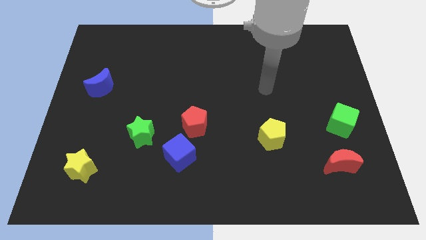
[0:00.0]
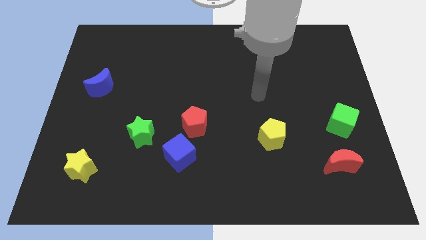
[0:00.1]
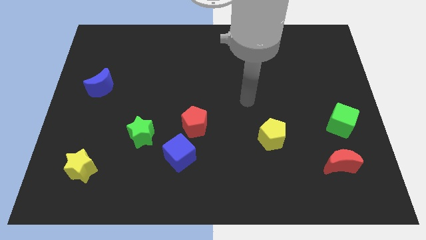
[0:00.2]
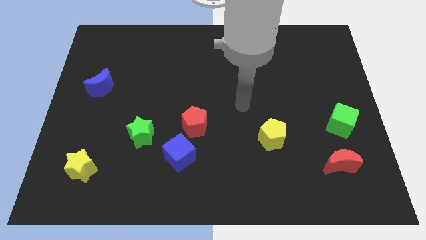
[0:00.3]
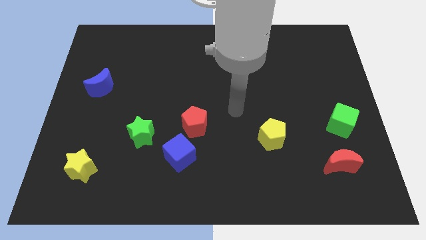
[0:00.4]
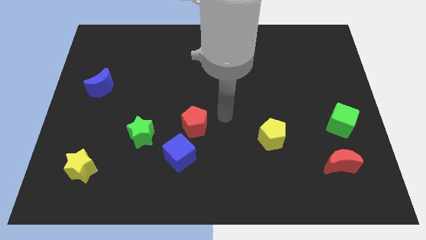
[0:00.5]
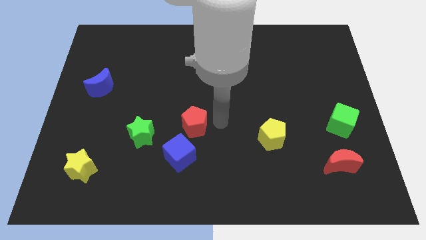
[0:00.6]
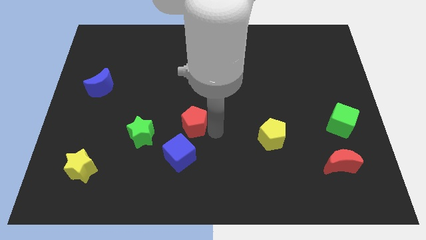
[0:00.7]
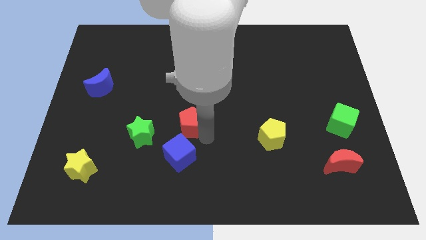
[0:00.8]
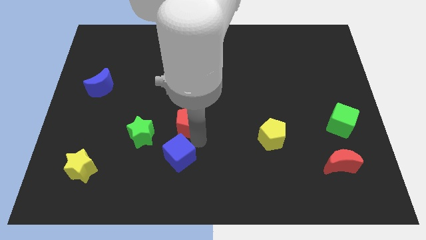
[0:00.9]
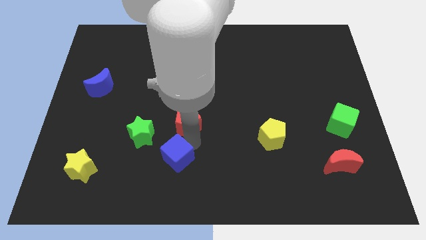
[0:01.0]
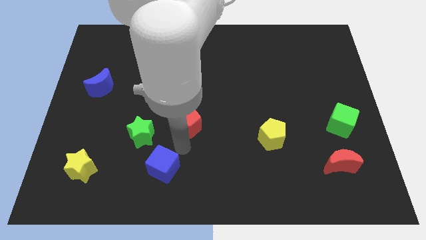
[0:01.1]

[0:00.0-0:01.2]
separate the red pentagon from the blue cube

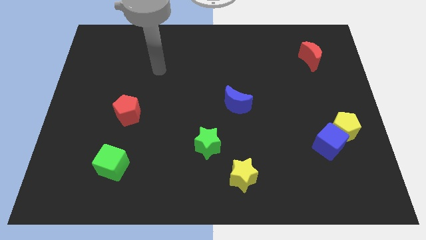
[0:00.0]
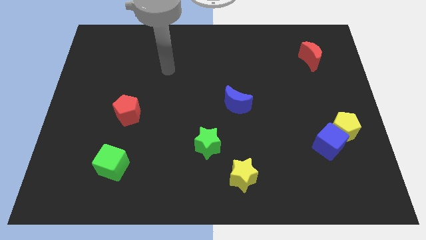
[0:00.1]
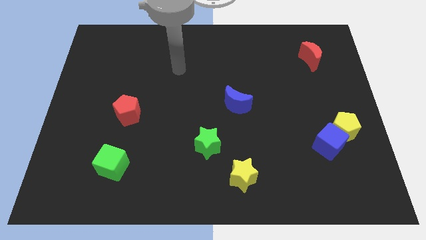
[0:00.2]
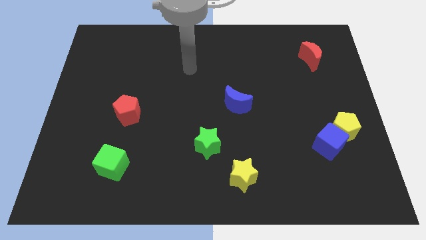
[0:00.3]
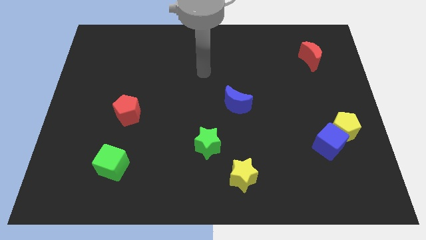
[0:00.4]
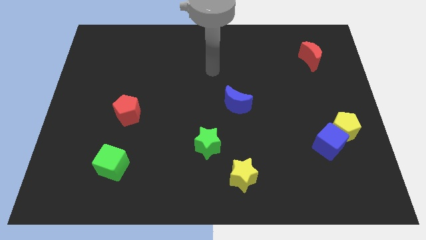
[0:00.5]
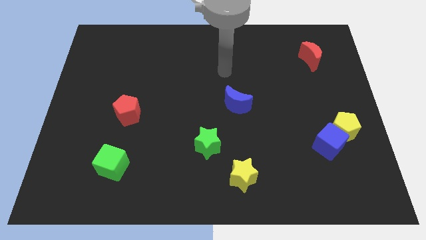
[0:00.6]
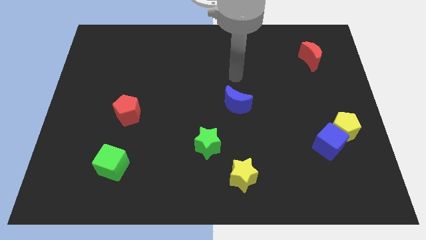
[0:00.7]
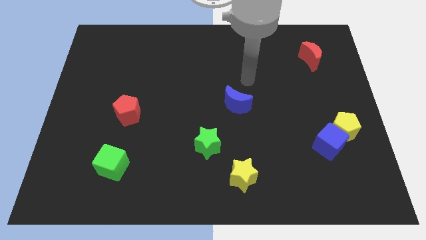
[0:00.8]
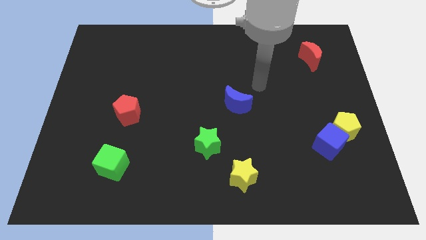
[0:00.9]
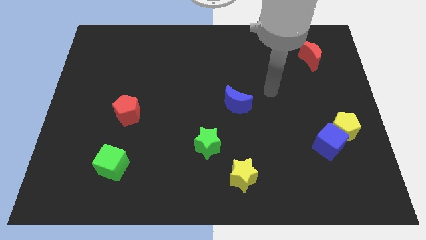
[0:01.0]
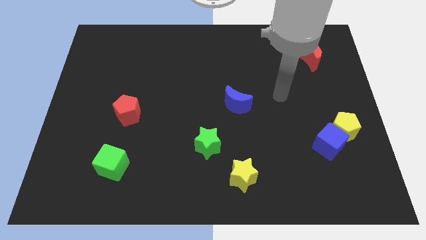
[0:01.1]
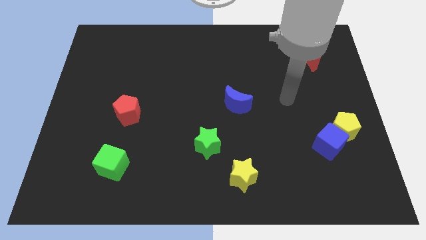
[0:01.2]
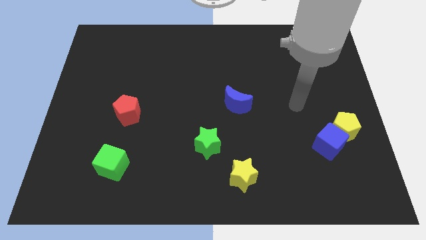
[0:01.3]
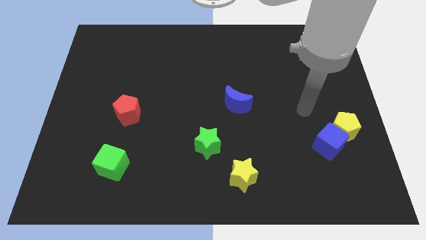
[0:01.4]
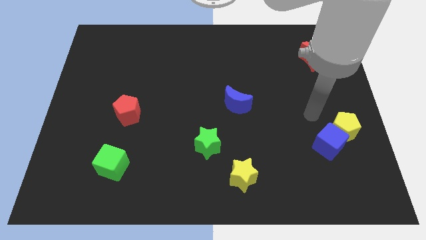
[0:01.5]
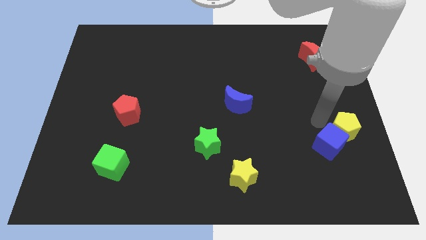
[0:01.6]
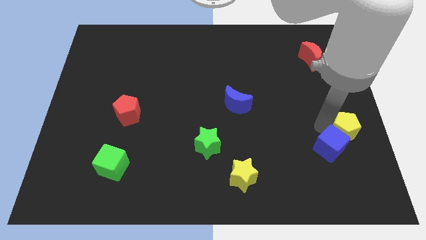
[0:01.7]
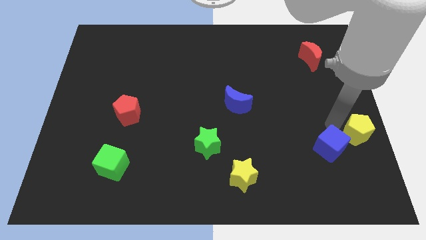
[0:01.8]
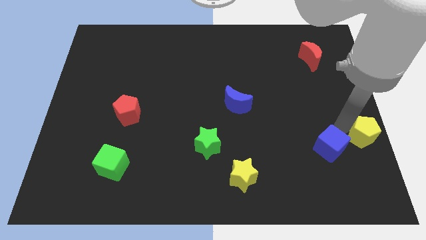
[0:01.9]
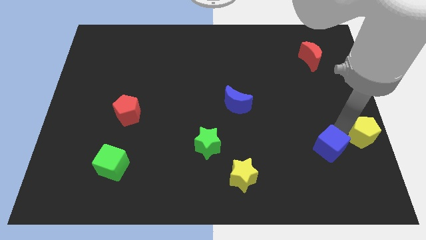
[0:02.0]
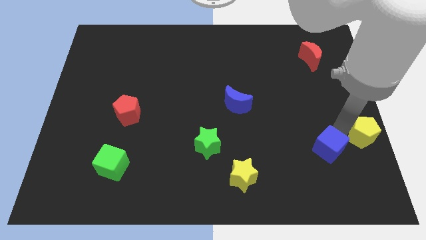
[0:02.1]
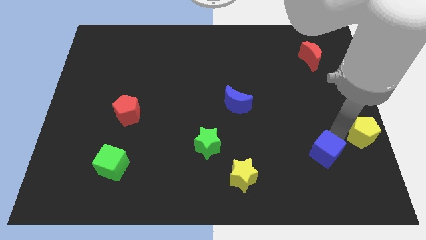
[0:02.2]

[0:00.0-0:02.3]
move the blue cube away from the yellow pentagon

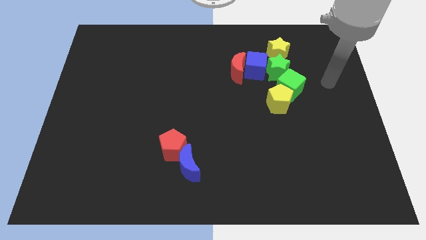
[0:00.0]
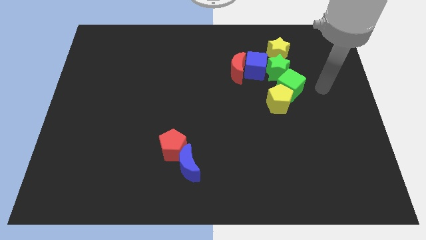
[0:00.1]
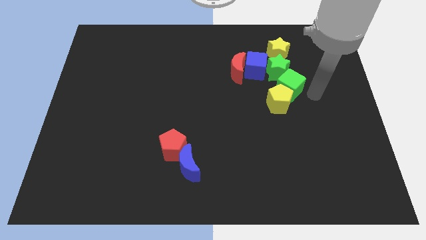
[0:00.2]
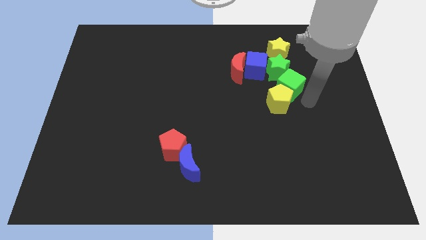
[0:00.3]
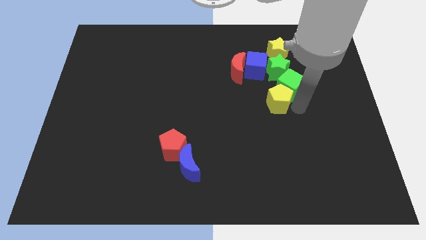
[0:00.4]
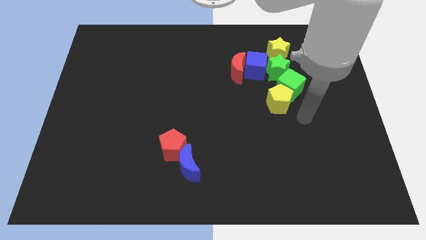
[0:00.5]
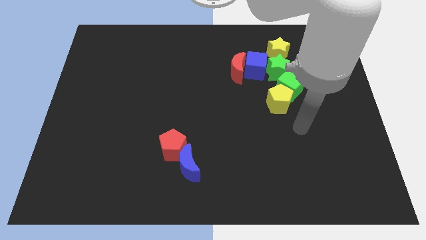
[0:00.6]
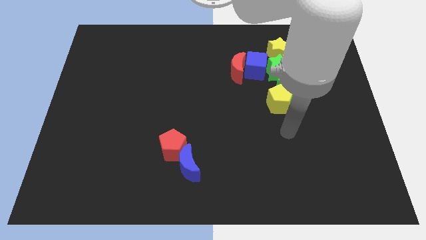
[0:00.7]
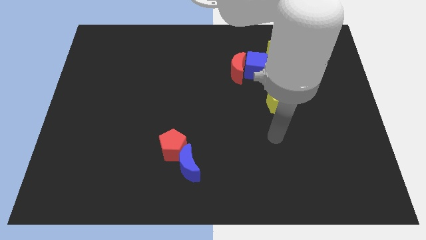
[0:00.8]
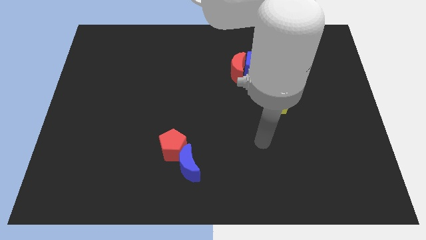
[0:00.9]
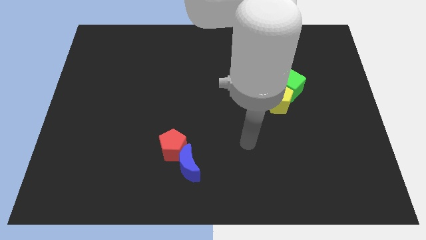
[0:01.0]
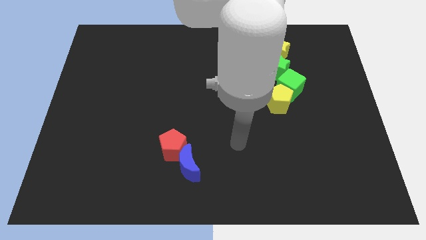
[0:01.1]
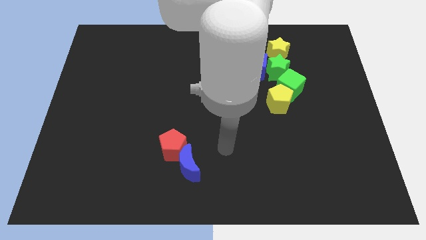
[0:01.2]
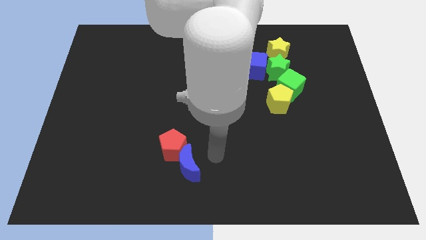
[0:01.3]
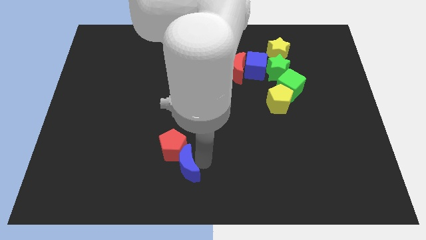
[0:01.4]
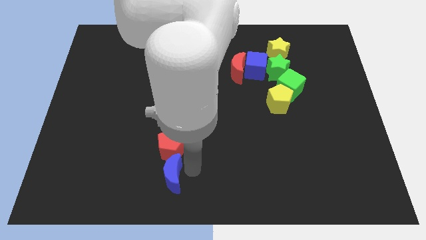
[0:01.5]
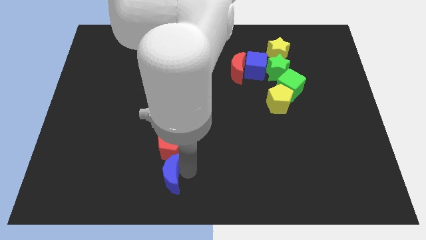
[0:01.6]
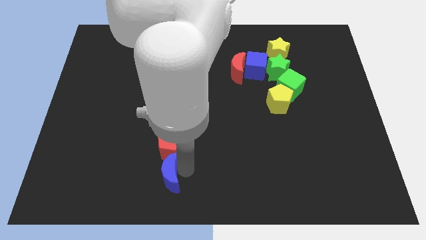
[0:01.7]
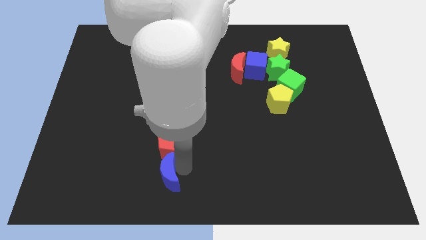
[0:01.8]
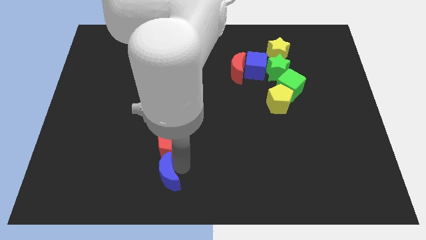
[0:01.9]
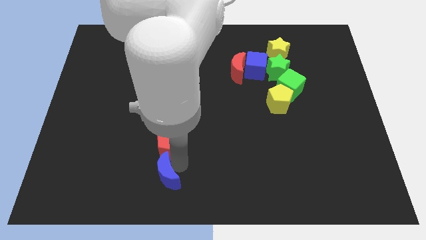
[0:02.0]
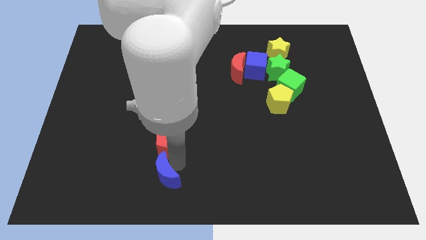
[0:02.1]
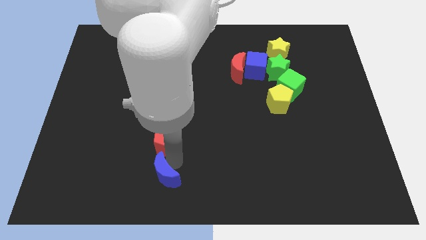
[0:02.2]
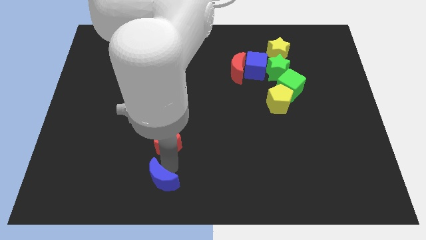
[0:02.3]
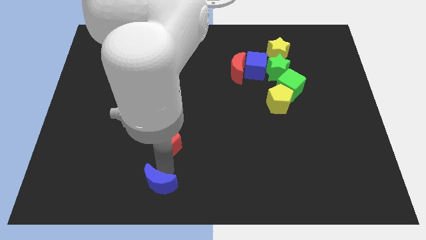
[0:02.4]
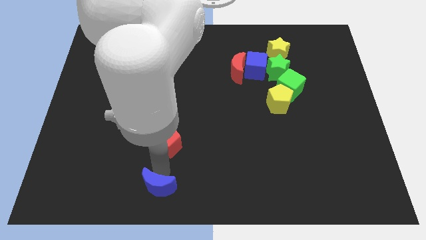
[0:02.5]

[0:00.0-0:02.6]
move the red pentagon away from the blue moon

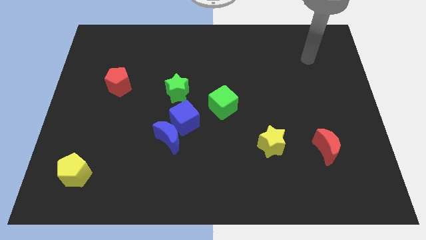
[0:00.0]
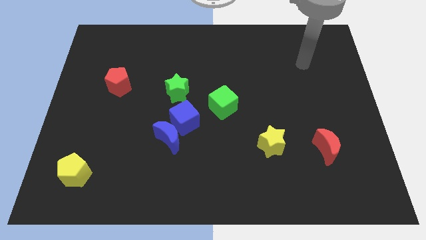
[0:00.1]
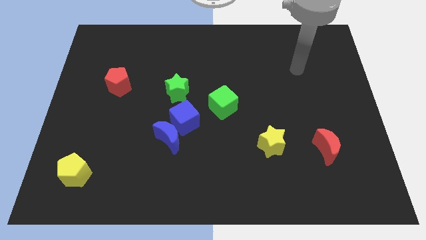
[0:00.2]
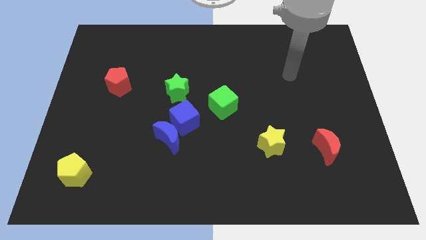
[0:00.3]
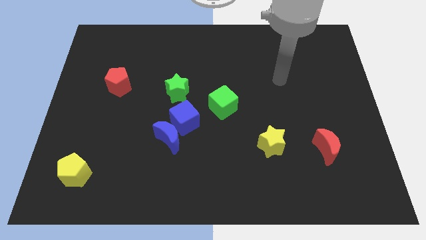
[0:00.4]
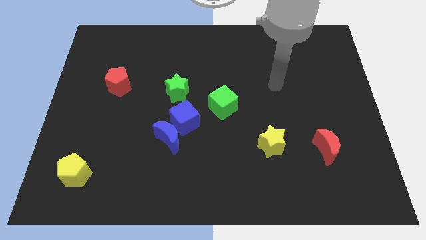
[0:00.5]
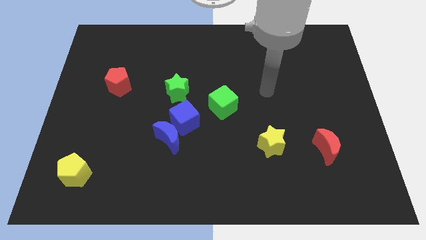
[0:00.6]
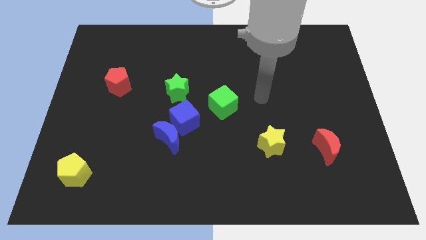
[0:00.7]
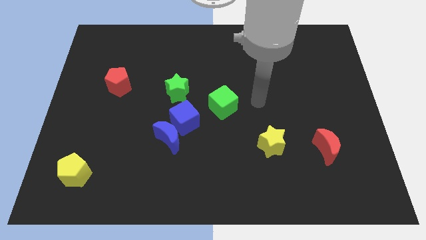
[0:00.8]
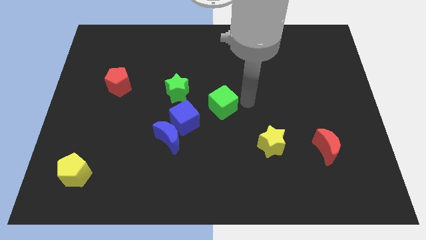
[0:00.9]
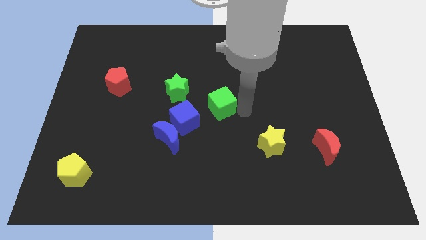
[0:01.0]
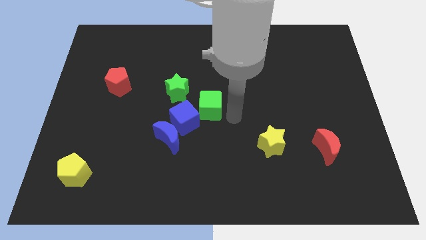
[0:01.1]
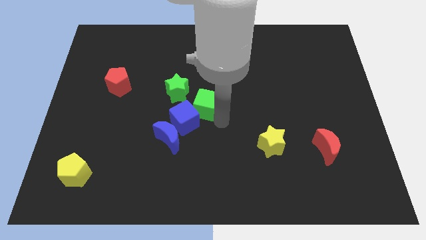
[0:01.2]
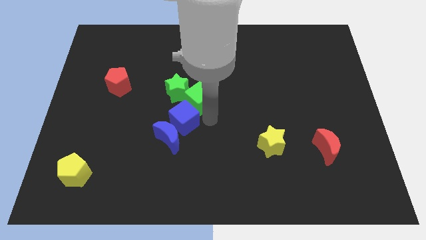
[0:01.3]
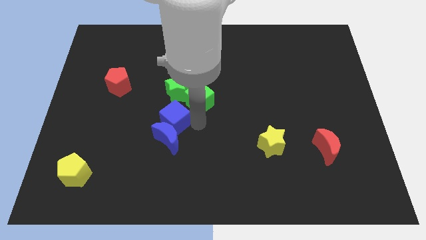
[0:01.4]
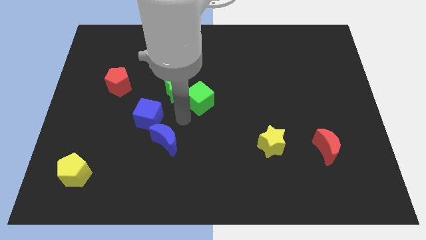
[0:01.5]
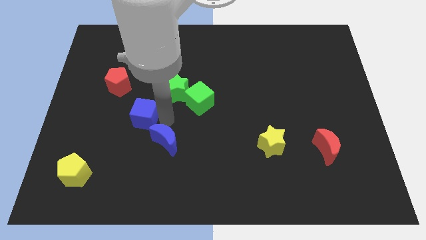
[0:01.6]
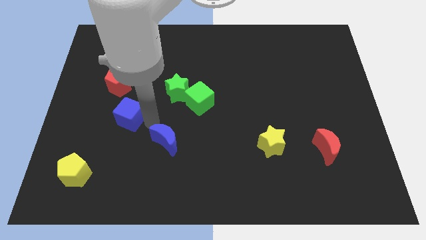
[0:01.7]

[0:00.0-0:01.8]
move the blue moon away from the blue cube

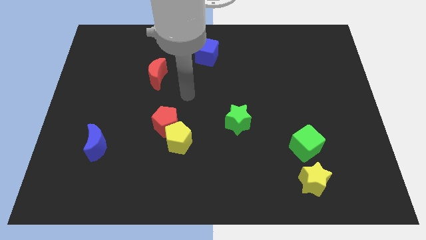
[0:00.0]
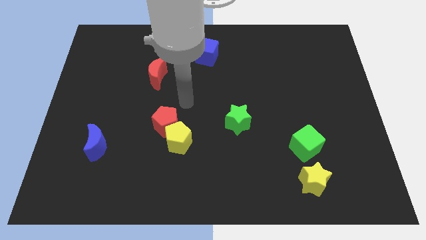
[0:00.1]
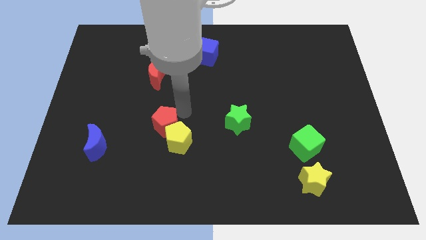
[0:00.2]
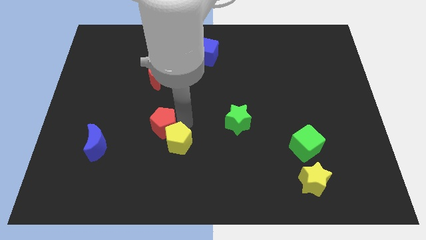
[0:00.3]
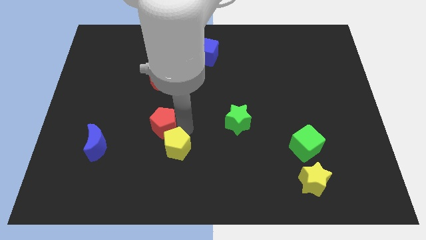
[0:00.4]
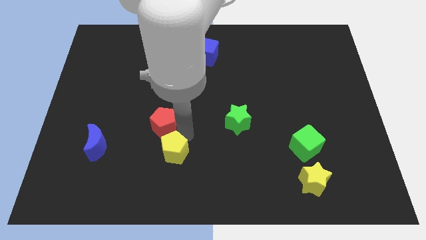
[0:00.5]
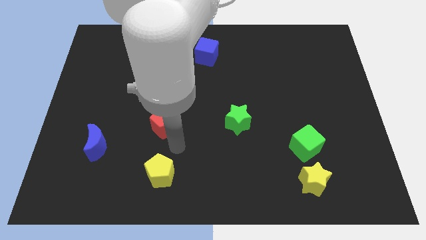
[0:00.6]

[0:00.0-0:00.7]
move the red pentagon away from the yellow pentagon

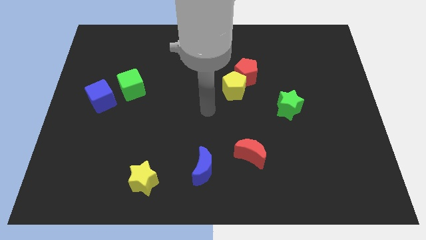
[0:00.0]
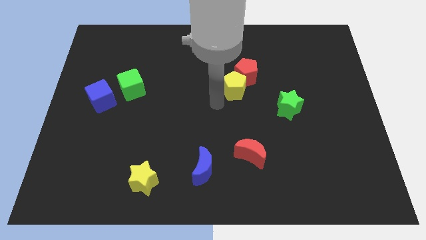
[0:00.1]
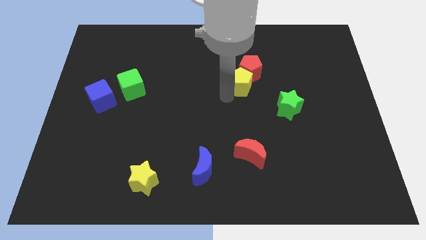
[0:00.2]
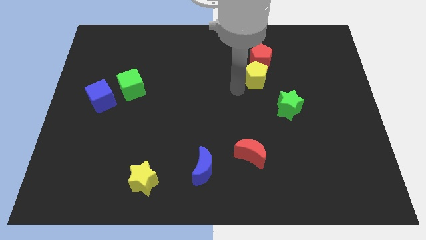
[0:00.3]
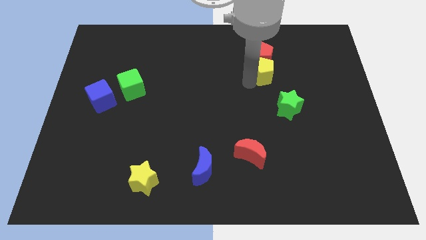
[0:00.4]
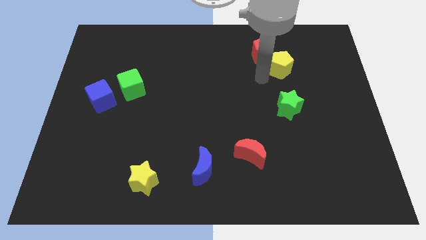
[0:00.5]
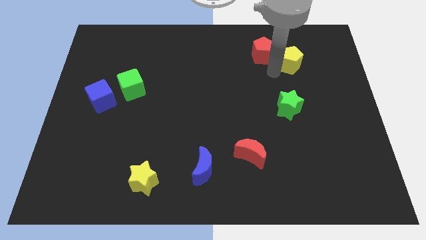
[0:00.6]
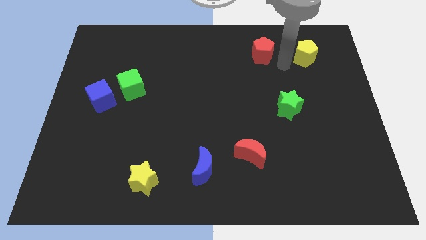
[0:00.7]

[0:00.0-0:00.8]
pull the red pentagon apart from the yellow pentagon
